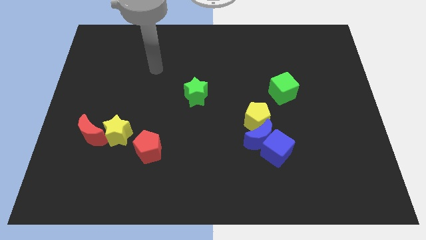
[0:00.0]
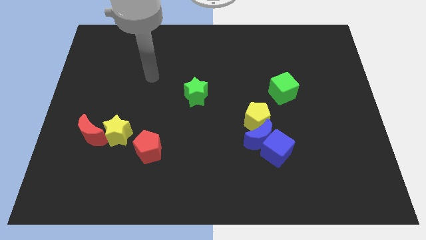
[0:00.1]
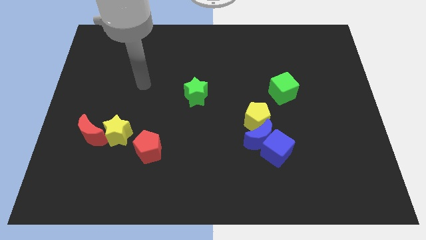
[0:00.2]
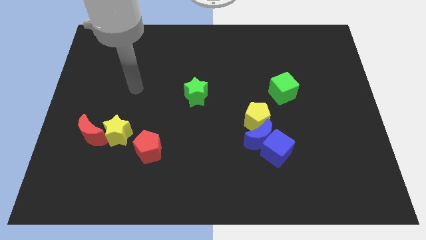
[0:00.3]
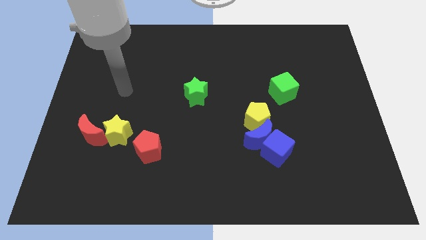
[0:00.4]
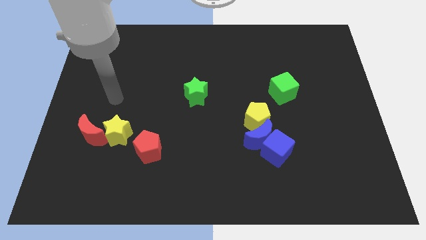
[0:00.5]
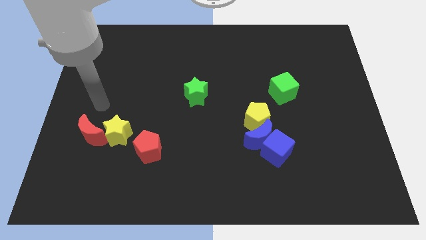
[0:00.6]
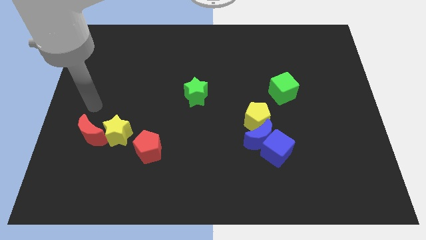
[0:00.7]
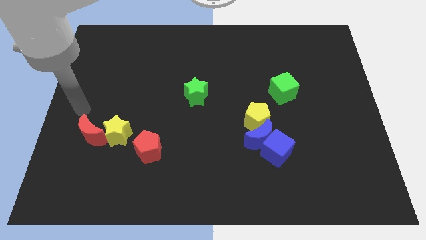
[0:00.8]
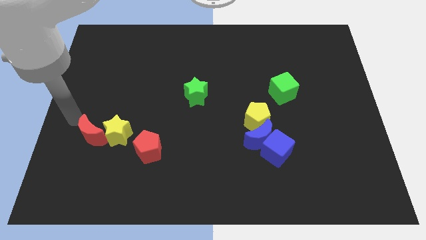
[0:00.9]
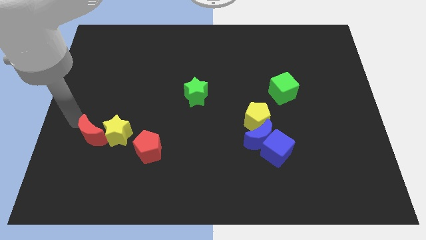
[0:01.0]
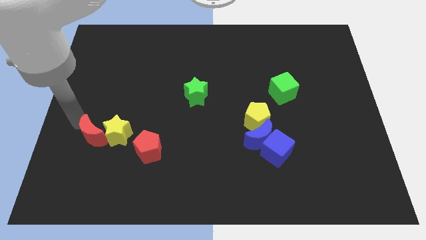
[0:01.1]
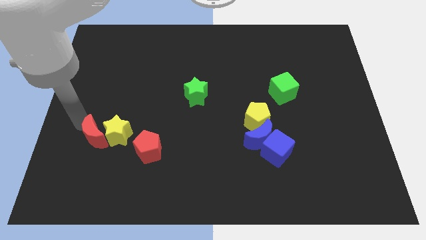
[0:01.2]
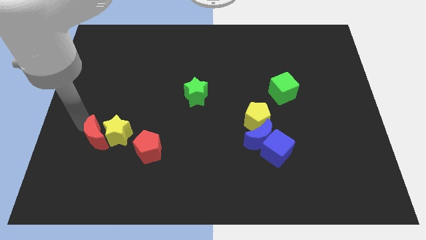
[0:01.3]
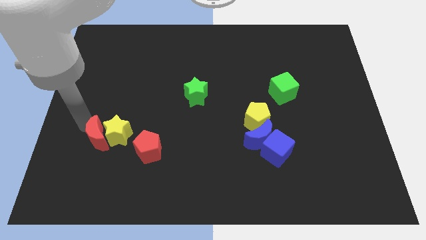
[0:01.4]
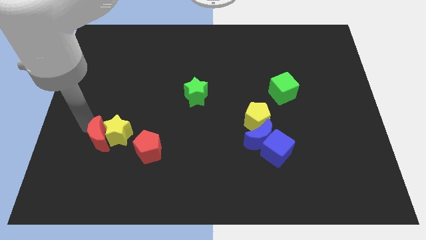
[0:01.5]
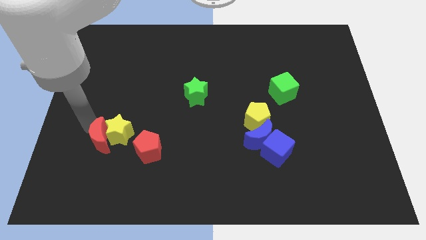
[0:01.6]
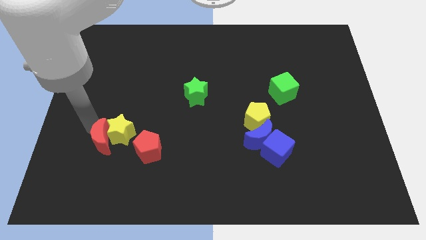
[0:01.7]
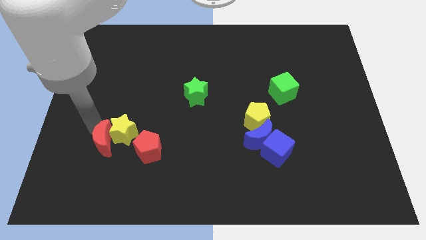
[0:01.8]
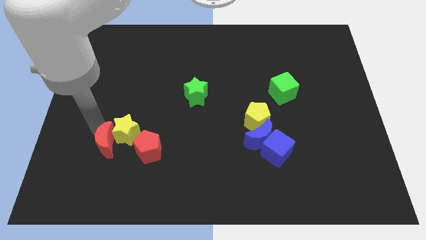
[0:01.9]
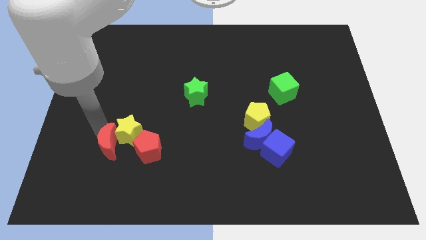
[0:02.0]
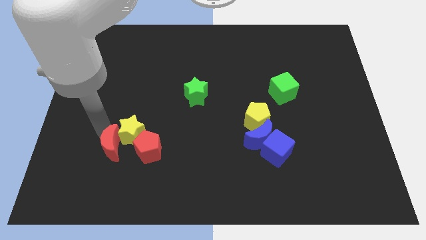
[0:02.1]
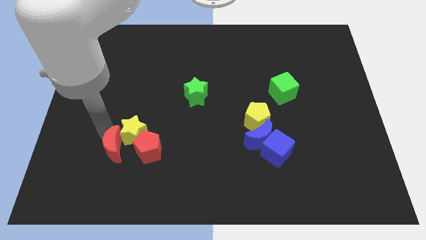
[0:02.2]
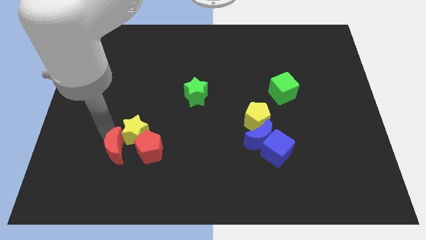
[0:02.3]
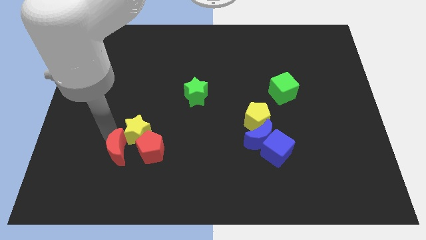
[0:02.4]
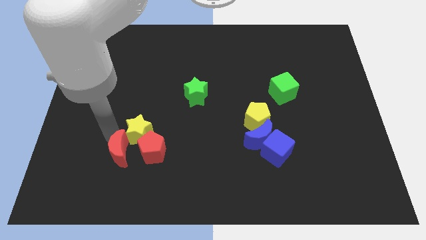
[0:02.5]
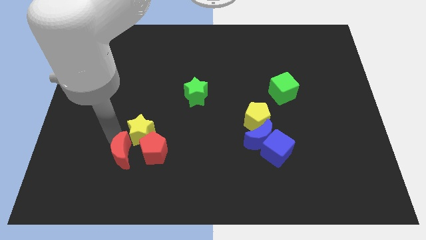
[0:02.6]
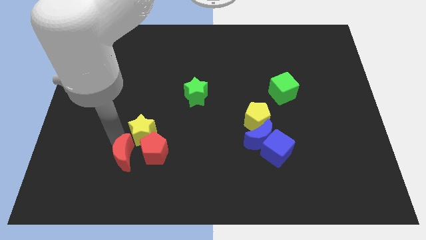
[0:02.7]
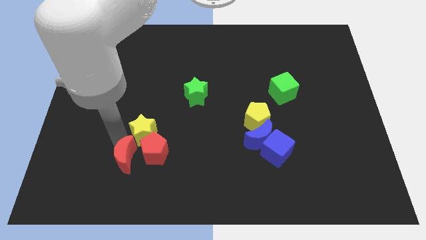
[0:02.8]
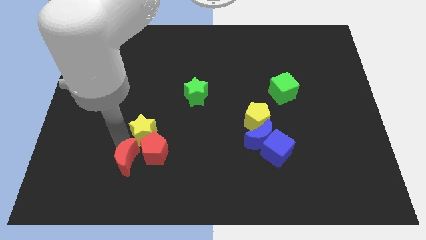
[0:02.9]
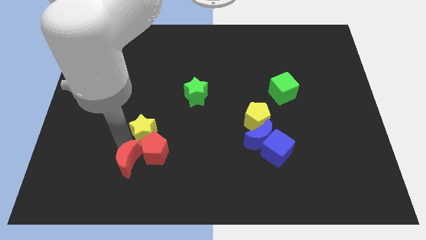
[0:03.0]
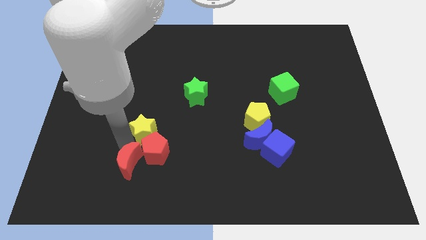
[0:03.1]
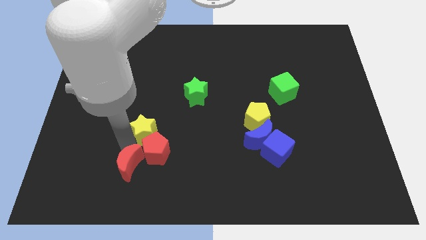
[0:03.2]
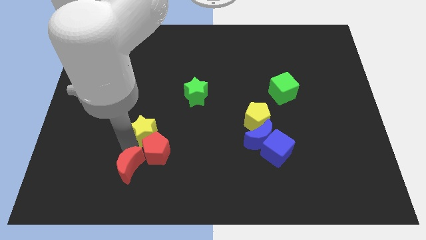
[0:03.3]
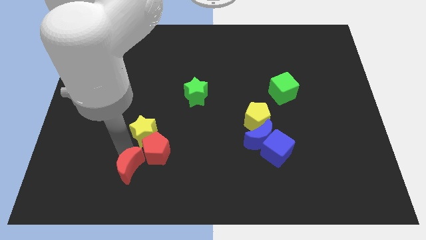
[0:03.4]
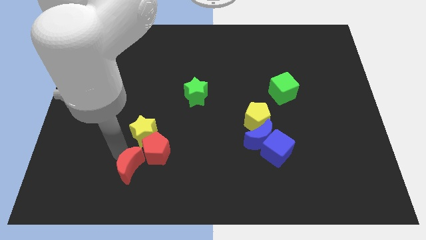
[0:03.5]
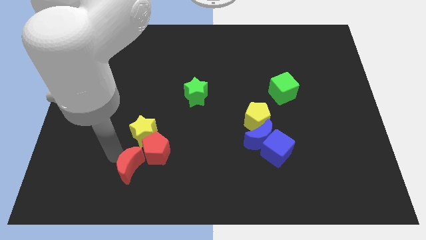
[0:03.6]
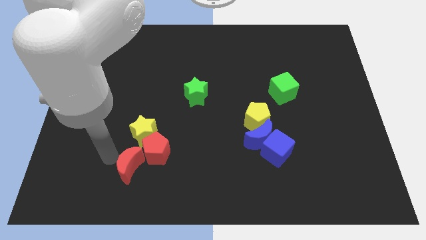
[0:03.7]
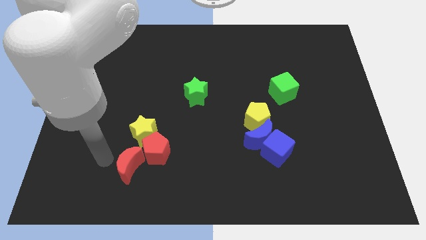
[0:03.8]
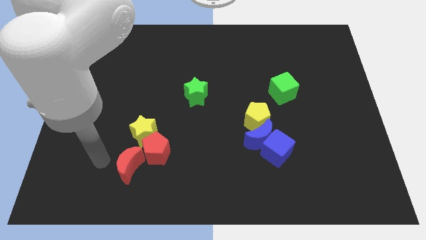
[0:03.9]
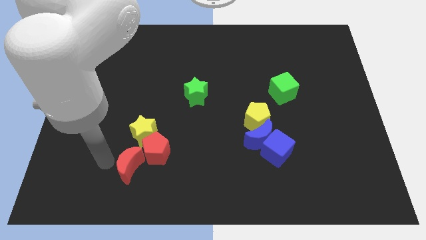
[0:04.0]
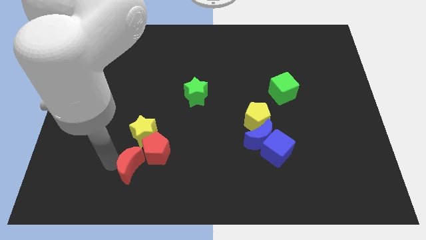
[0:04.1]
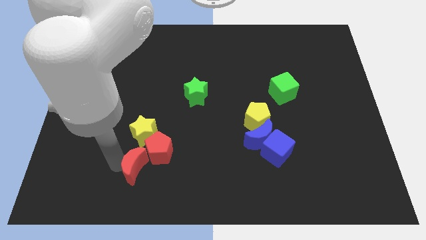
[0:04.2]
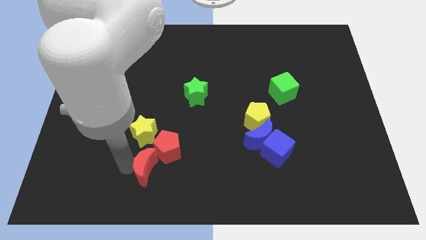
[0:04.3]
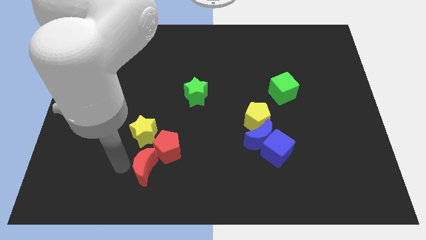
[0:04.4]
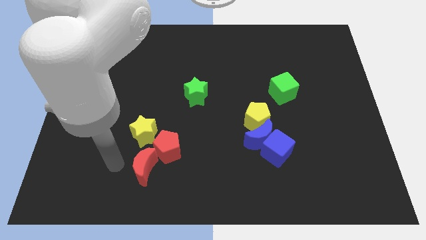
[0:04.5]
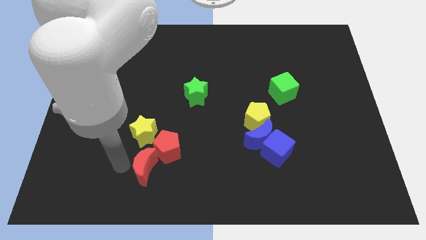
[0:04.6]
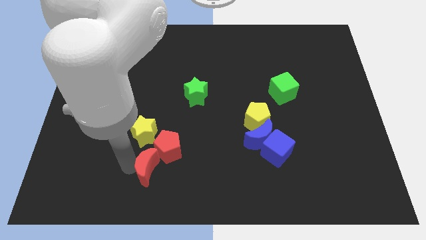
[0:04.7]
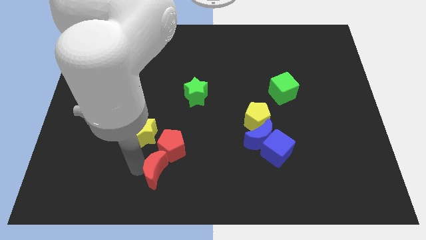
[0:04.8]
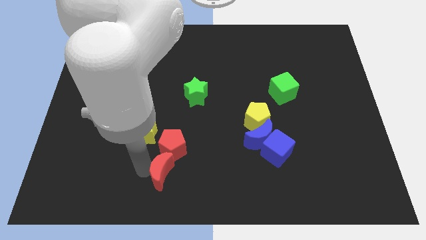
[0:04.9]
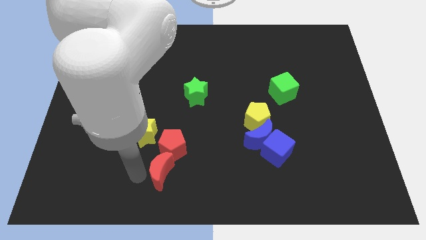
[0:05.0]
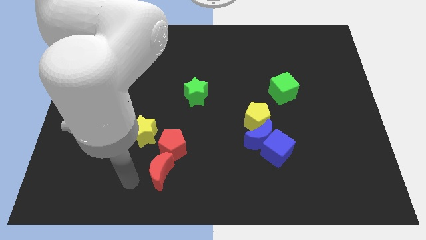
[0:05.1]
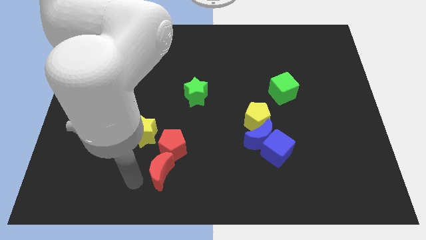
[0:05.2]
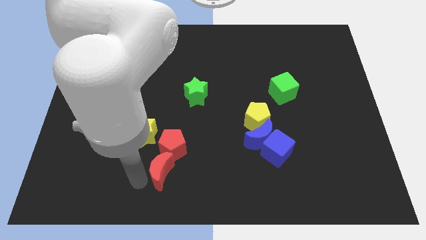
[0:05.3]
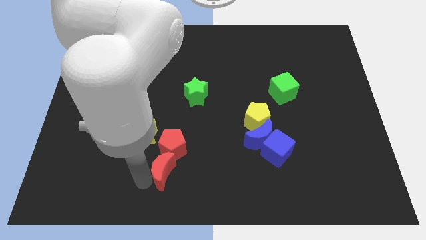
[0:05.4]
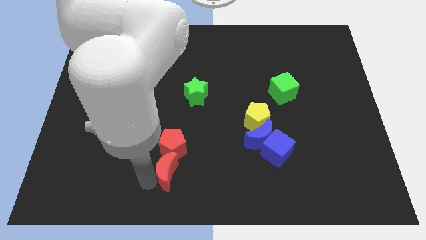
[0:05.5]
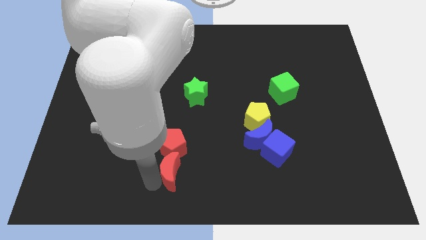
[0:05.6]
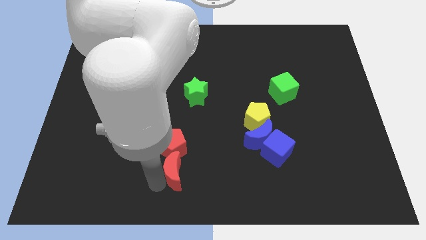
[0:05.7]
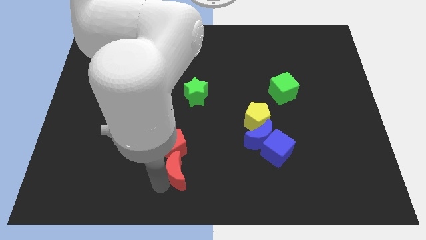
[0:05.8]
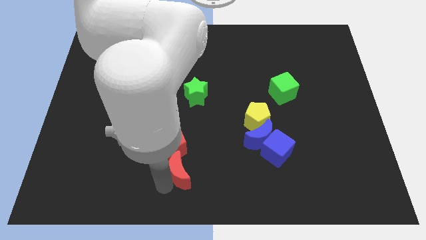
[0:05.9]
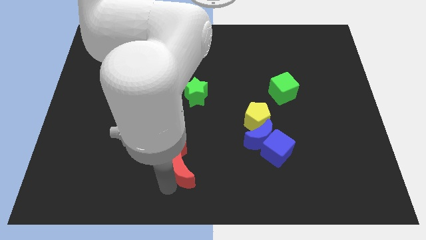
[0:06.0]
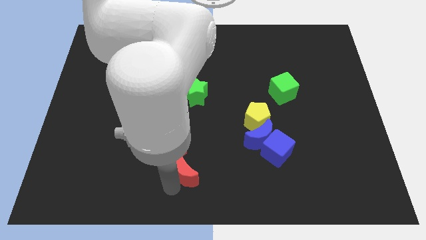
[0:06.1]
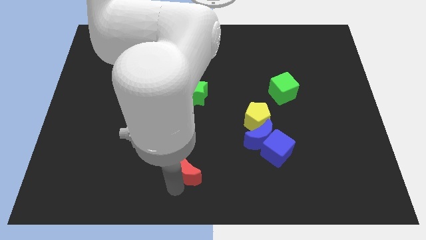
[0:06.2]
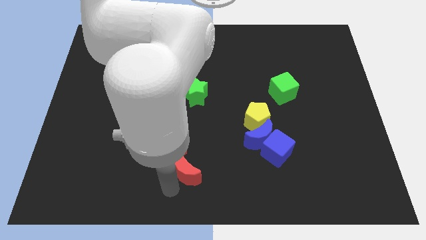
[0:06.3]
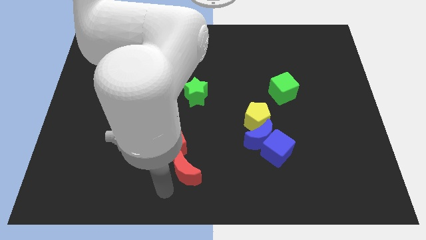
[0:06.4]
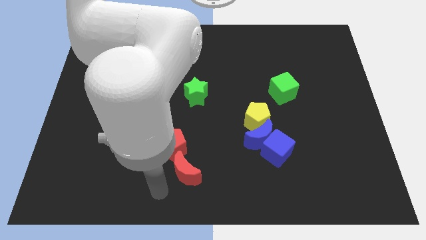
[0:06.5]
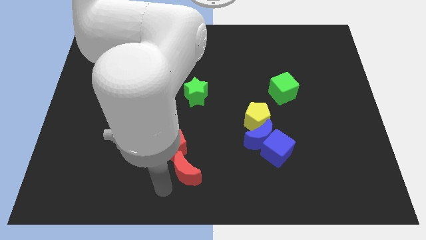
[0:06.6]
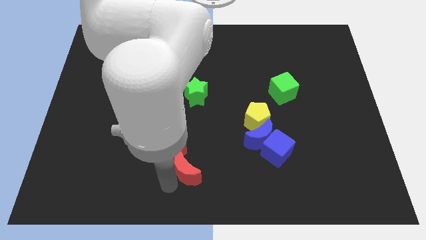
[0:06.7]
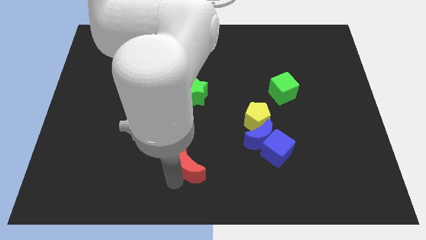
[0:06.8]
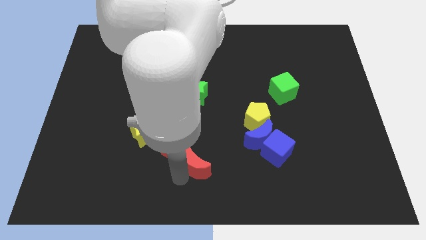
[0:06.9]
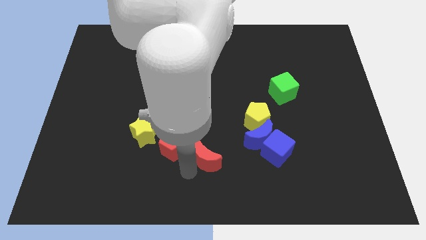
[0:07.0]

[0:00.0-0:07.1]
move the red moon just left of the blue cube

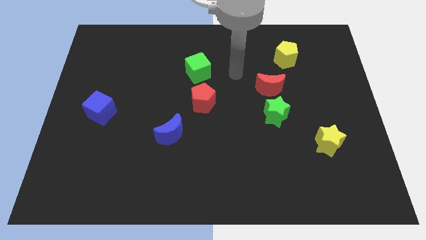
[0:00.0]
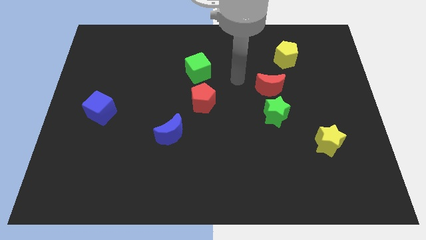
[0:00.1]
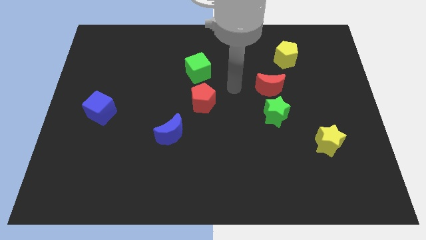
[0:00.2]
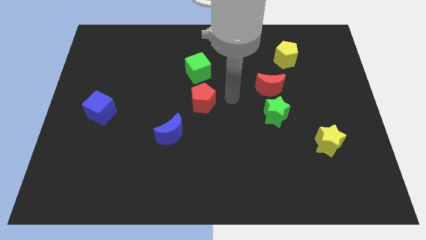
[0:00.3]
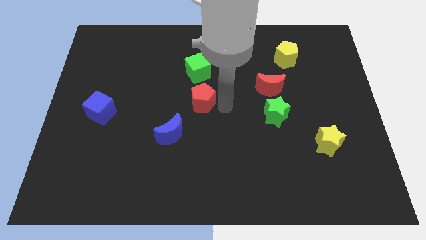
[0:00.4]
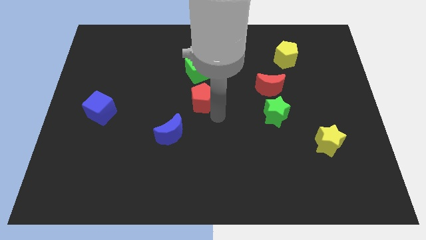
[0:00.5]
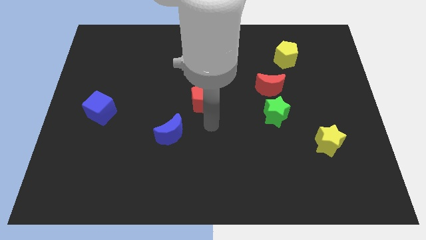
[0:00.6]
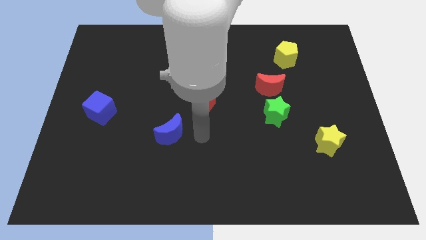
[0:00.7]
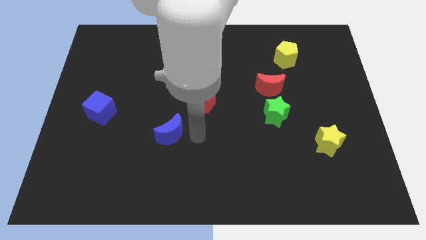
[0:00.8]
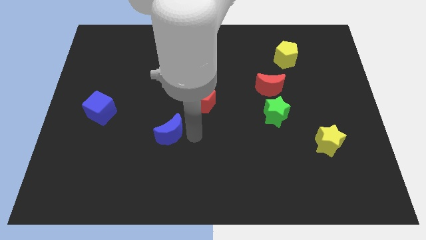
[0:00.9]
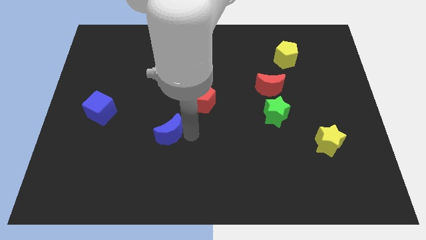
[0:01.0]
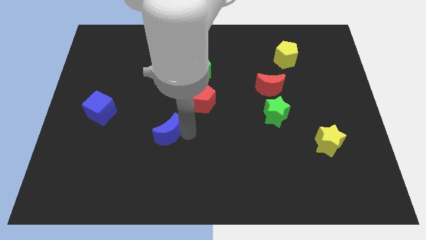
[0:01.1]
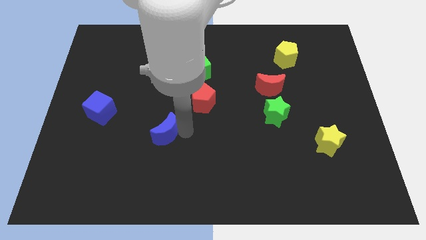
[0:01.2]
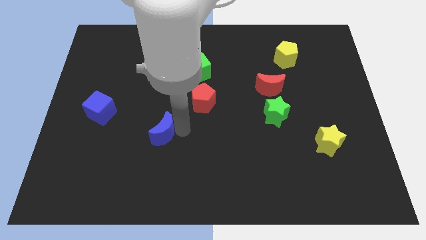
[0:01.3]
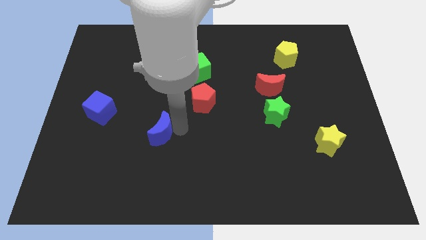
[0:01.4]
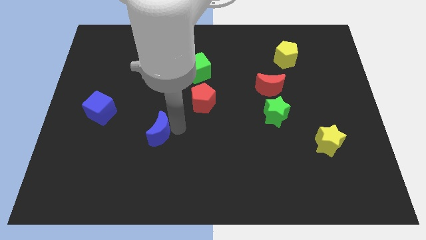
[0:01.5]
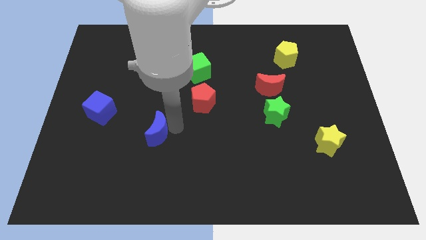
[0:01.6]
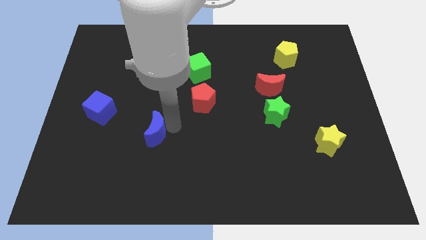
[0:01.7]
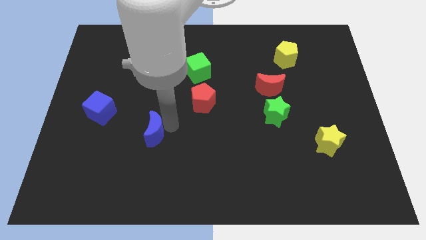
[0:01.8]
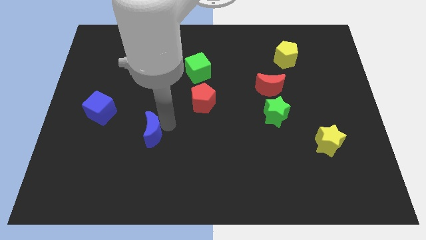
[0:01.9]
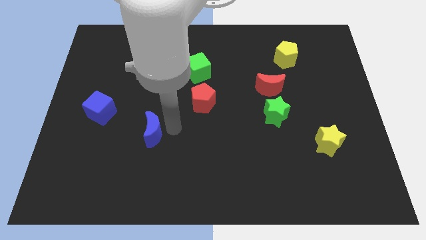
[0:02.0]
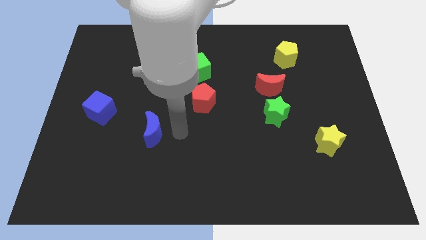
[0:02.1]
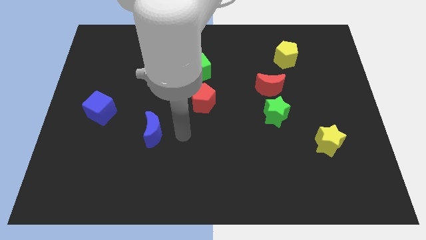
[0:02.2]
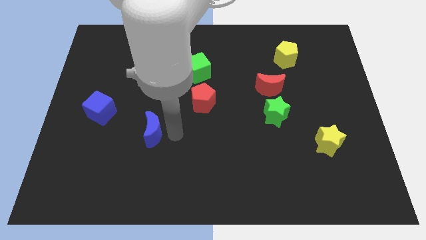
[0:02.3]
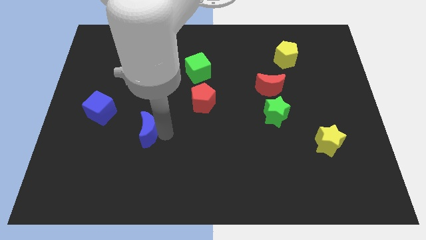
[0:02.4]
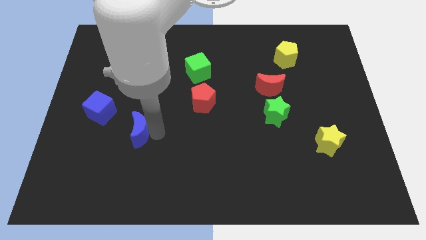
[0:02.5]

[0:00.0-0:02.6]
push the blue moon diagonally down and to the right of the blue cube
